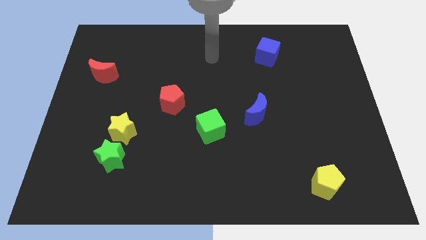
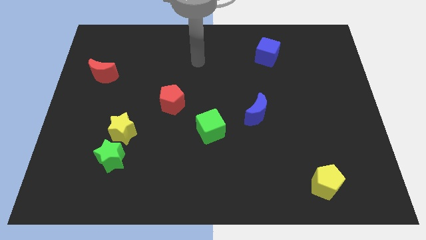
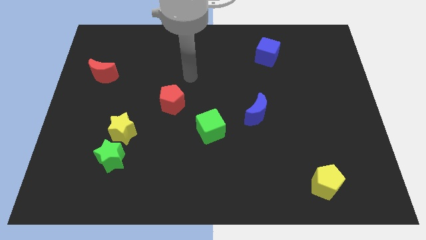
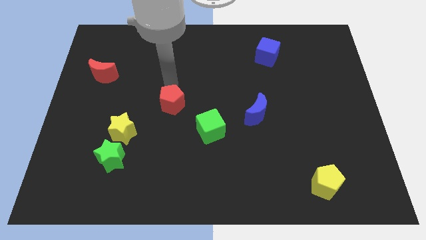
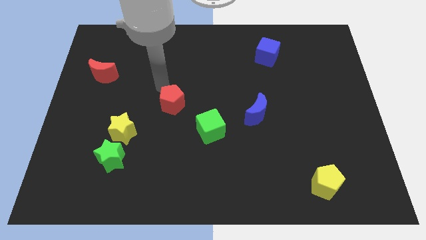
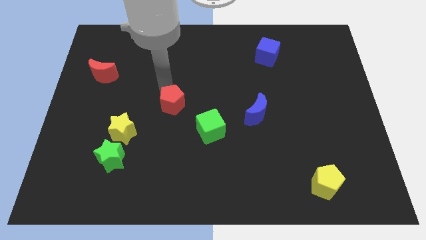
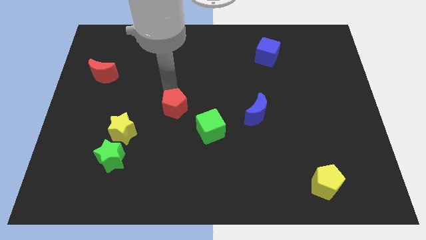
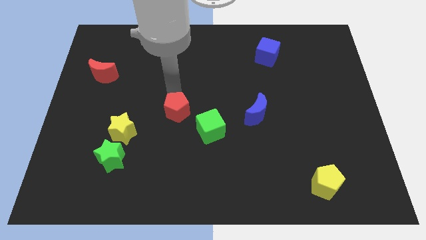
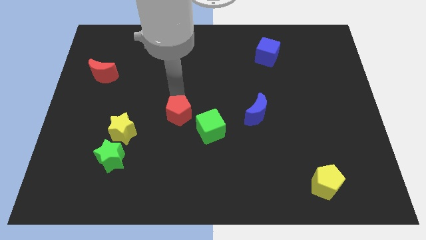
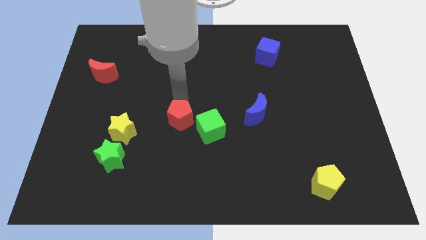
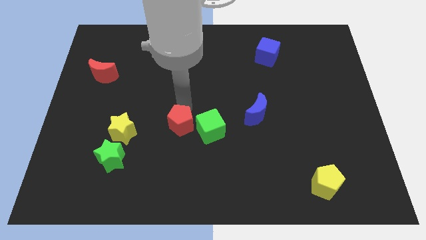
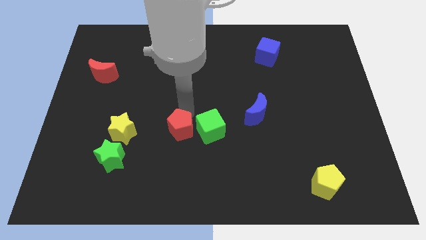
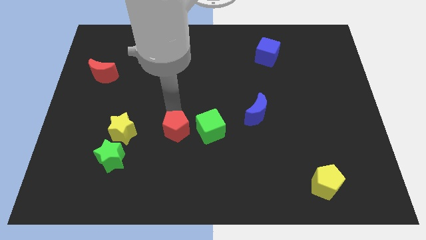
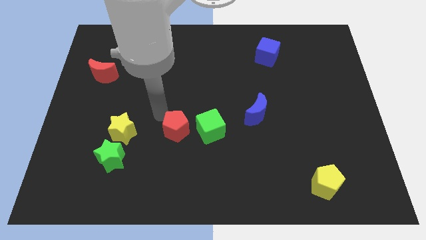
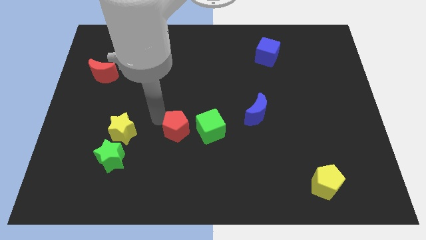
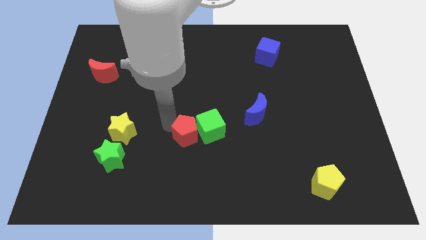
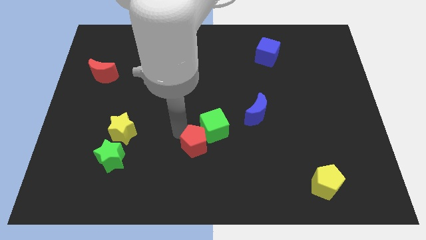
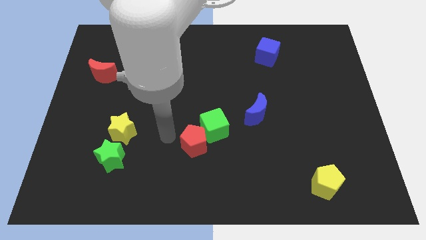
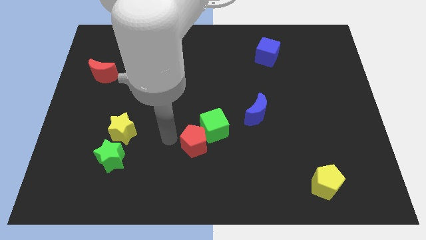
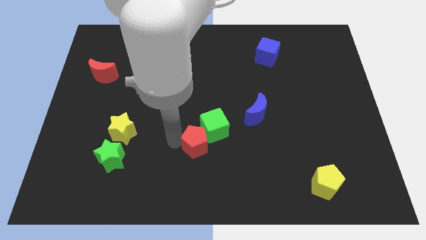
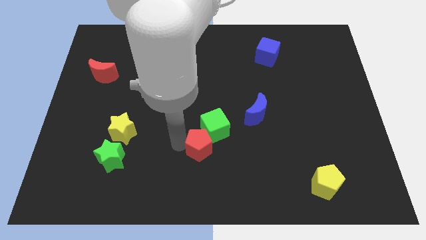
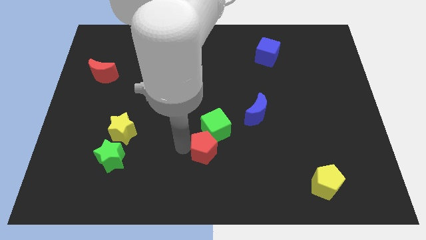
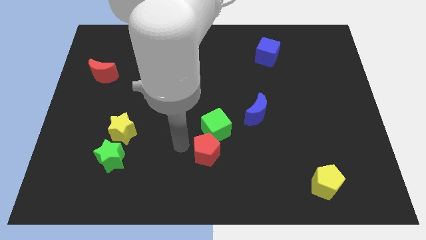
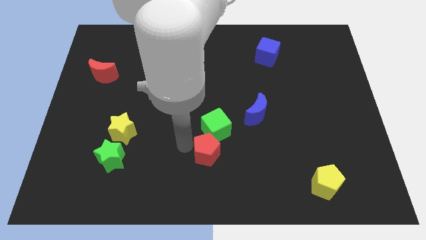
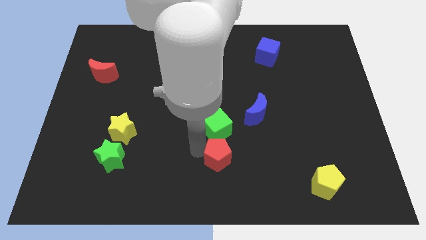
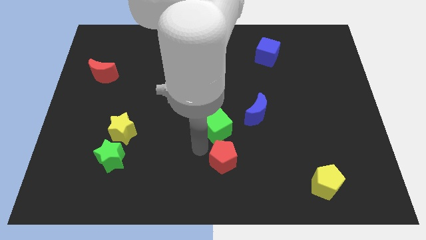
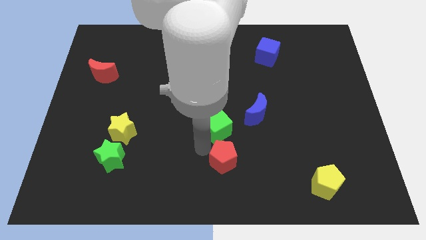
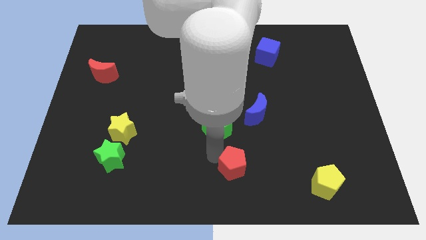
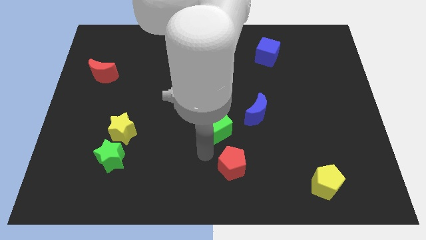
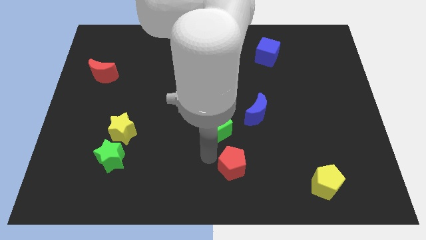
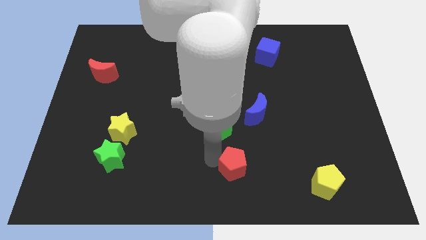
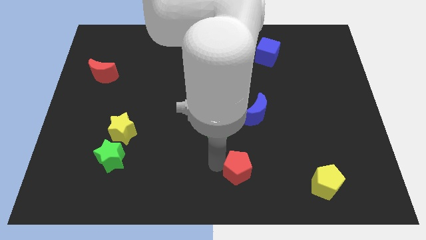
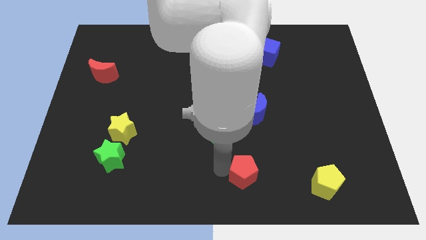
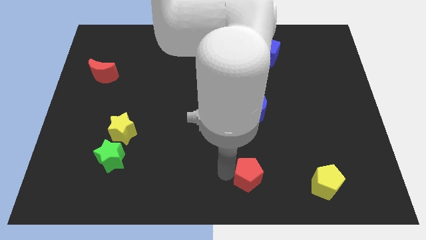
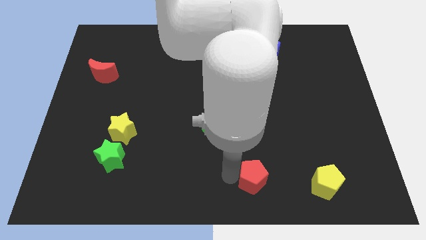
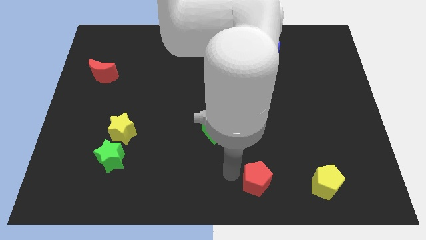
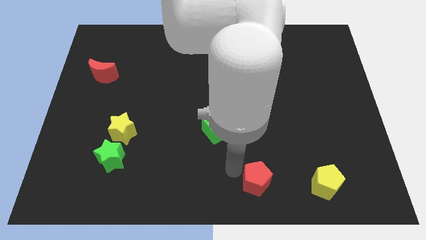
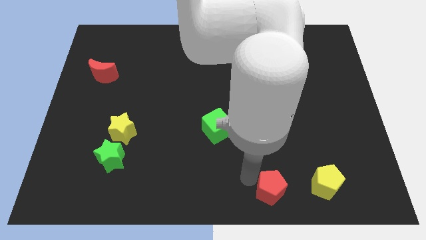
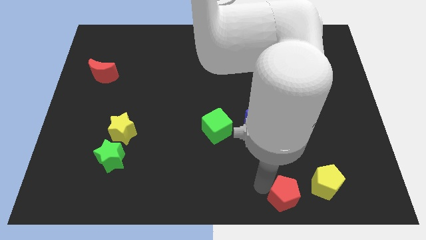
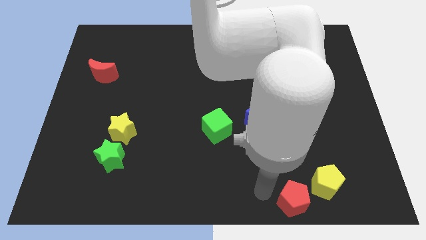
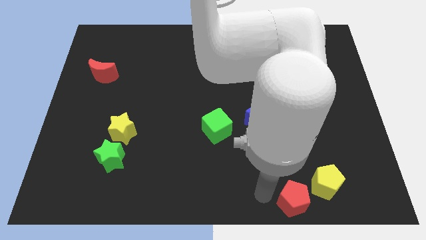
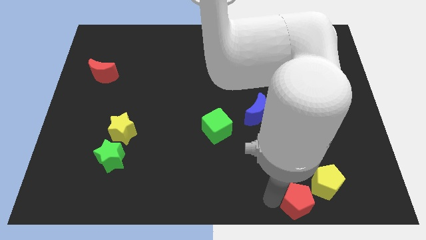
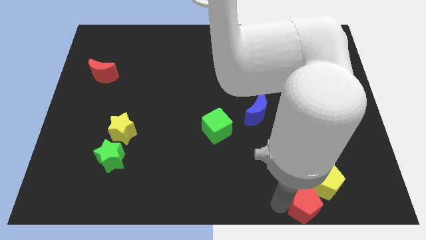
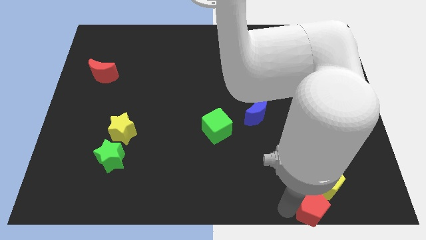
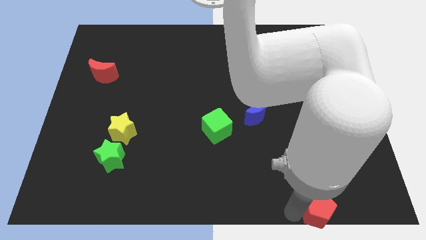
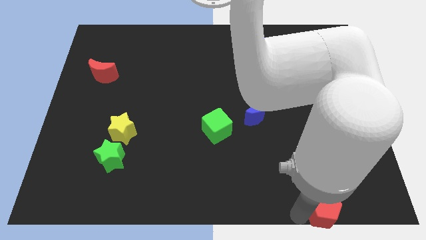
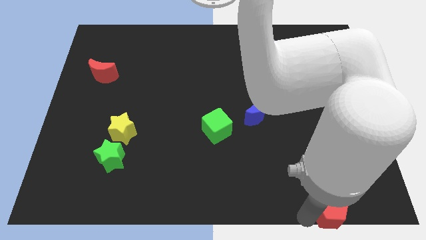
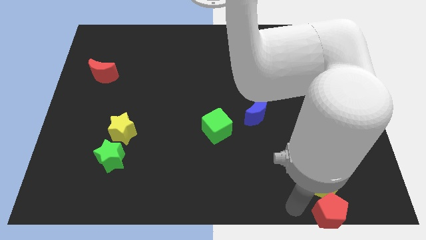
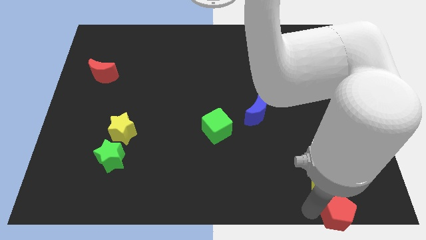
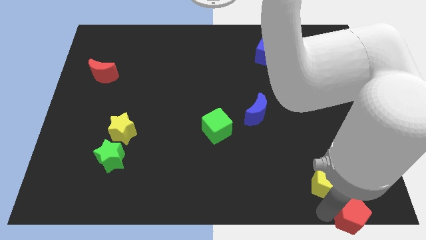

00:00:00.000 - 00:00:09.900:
push the red pentagon to the lower right corner

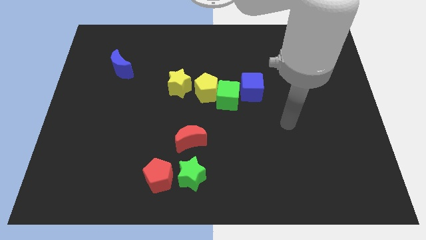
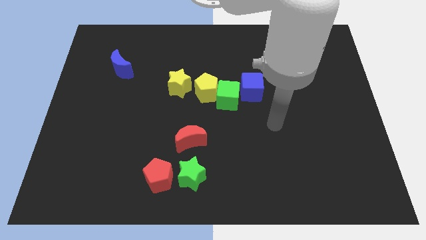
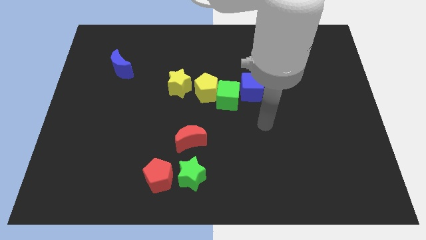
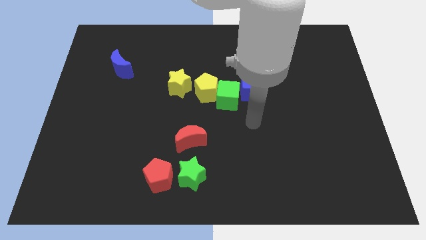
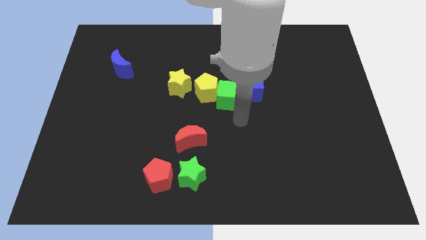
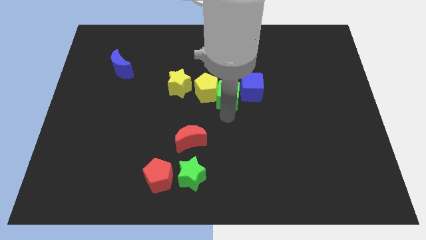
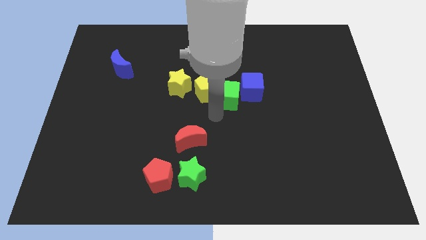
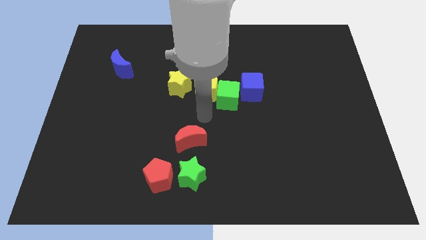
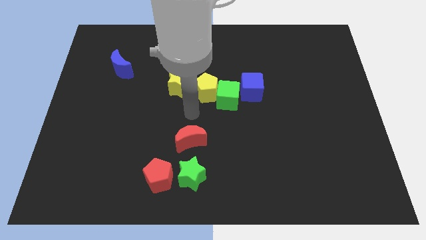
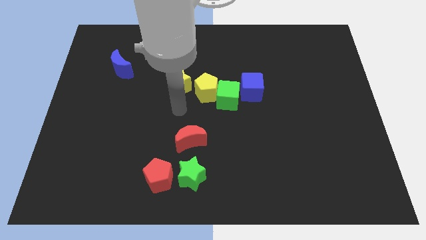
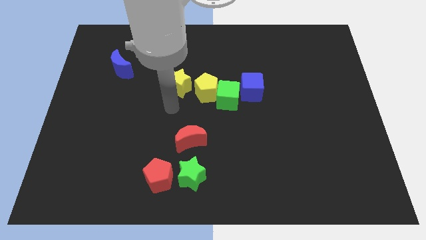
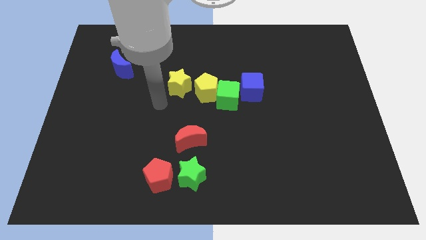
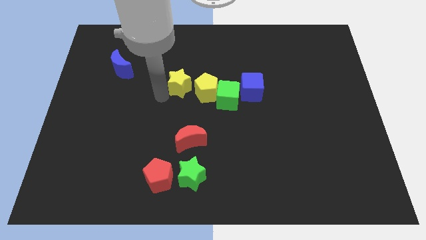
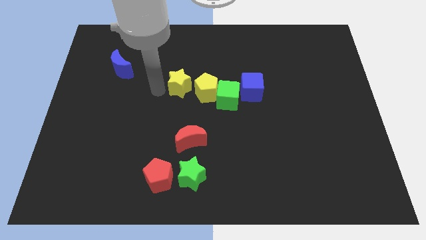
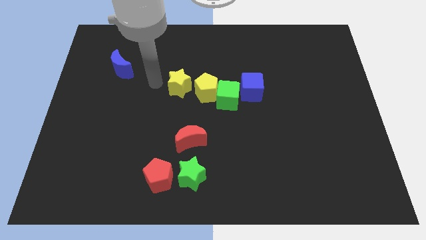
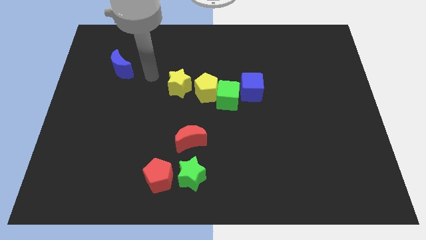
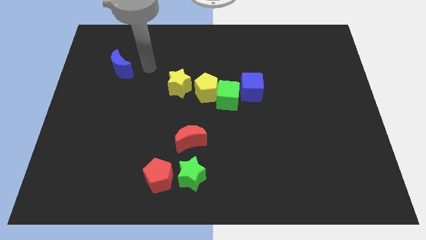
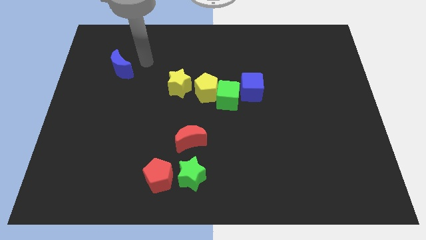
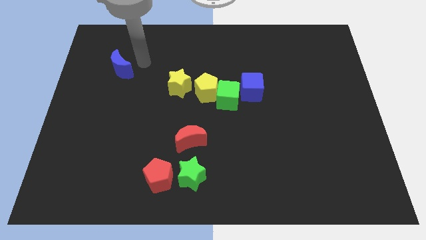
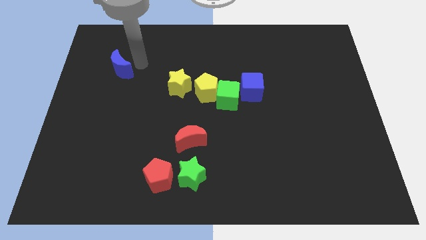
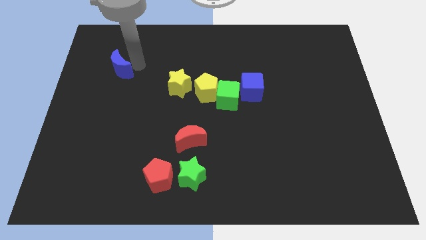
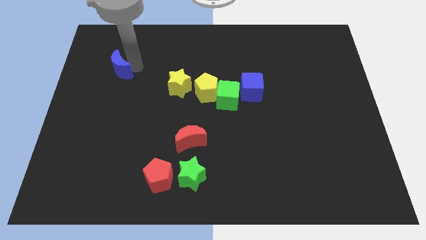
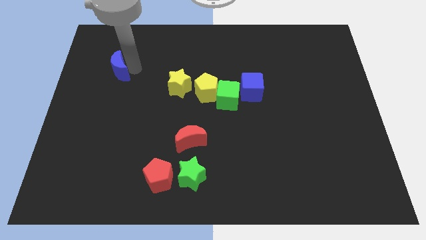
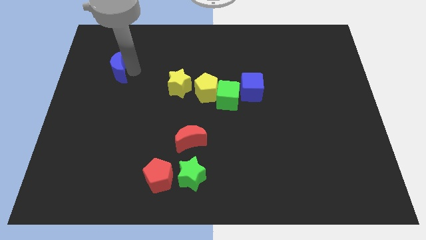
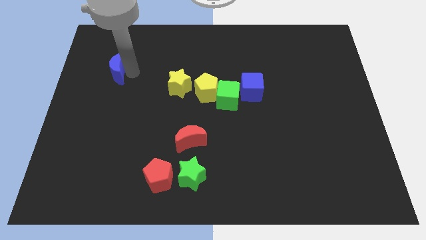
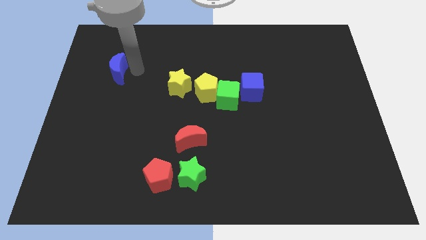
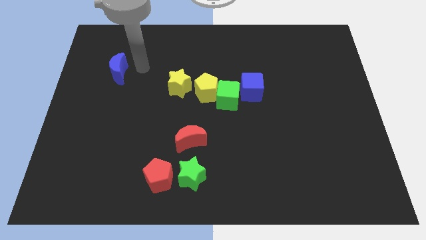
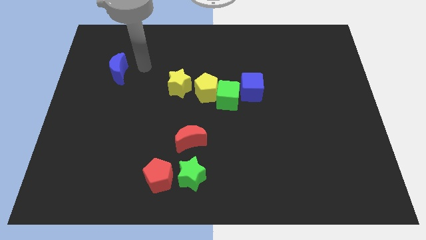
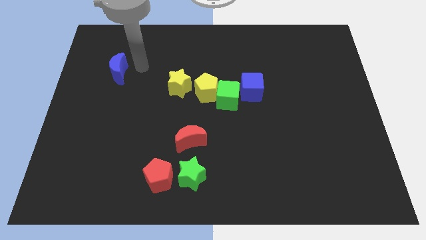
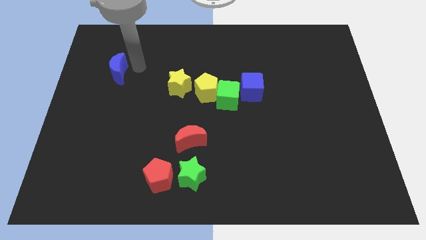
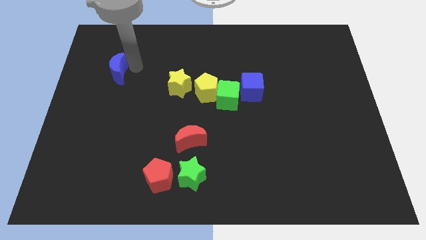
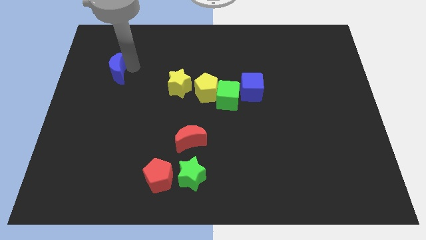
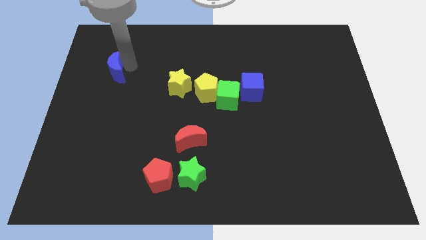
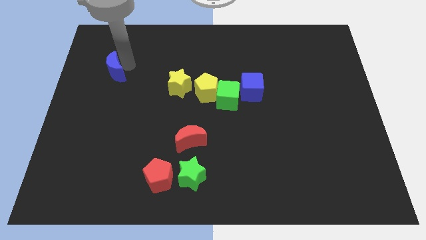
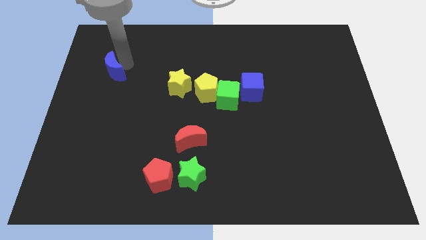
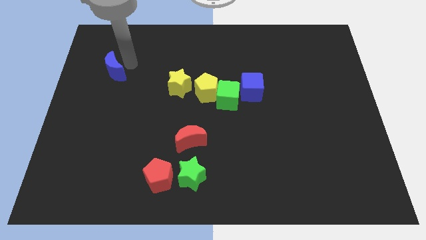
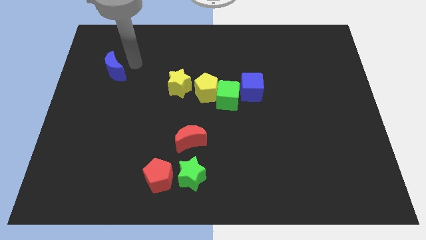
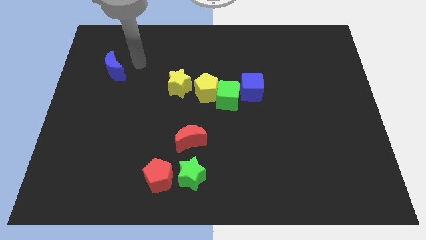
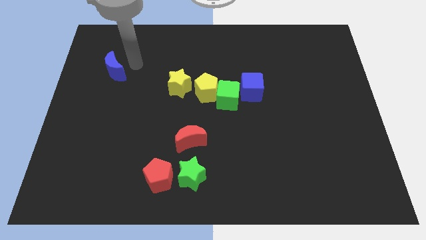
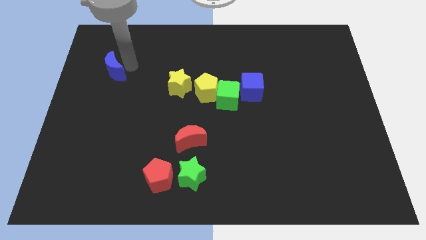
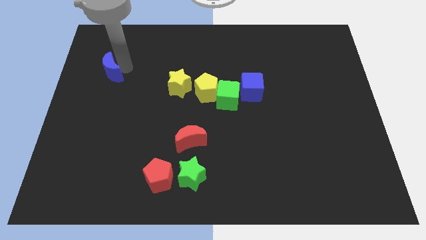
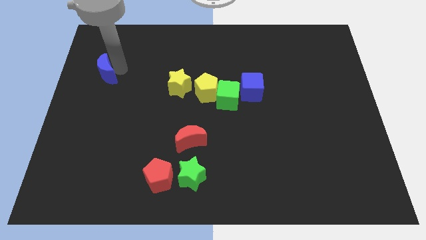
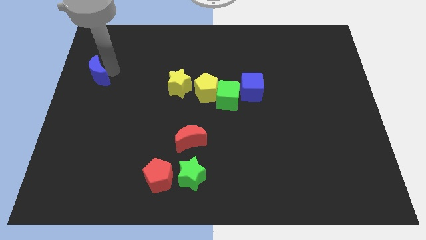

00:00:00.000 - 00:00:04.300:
push the blue moon to the left side
